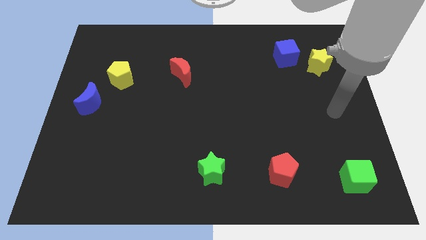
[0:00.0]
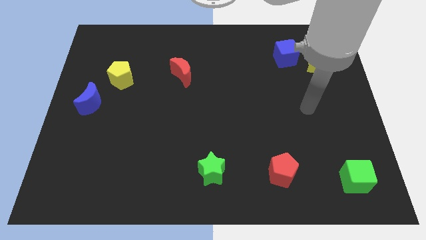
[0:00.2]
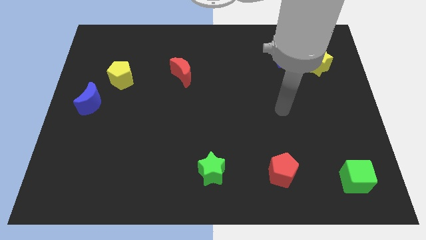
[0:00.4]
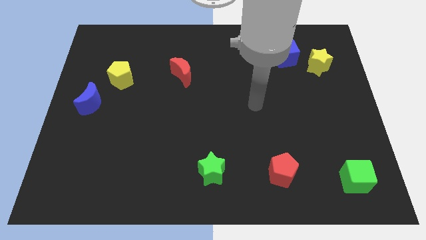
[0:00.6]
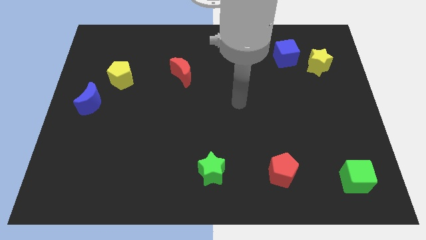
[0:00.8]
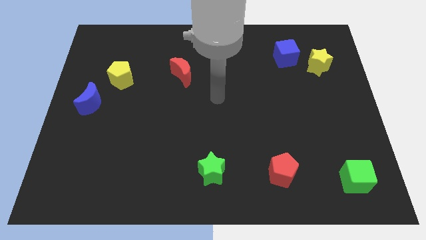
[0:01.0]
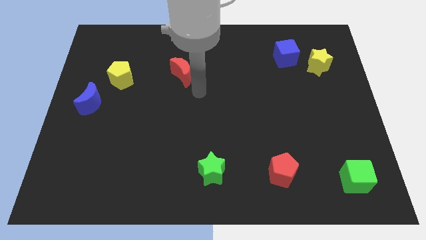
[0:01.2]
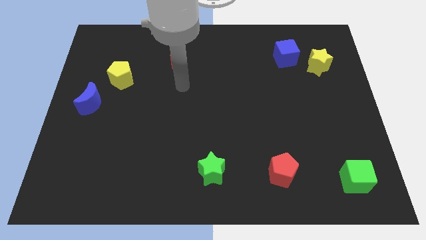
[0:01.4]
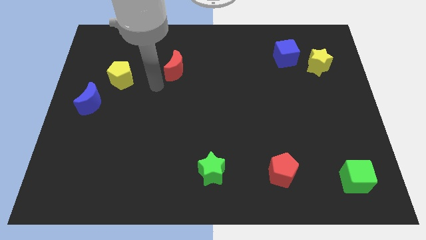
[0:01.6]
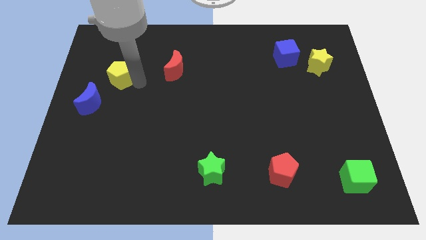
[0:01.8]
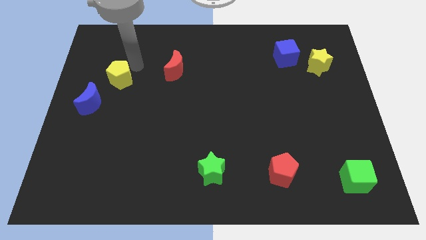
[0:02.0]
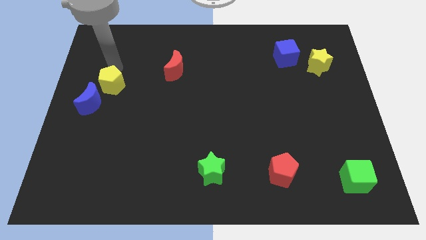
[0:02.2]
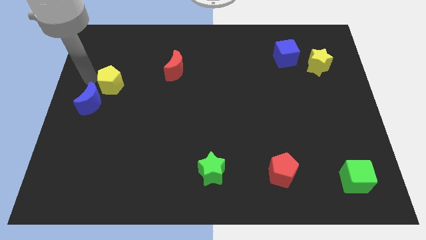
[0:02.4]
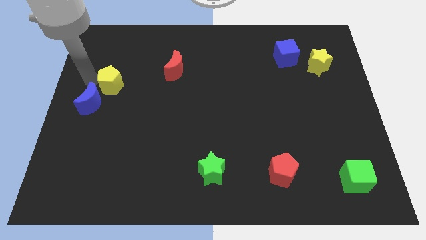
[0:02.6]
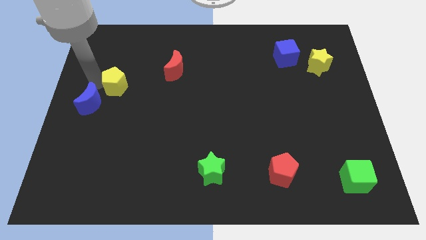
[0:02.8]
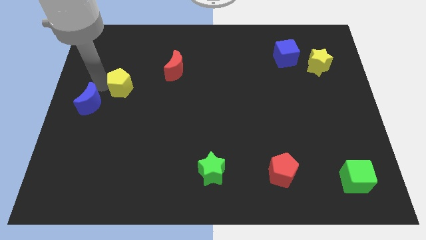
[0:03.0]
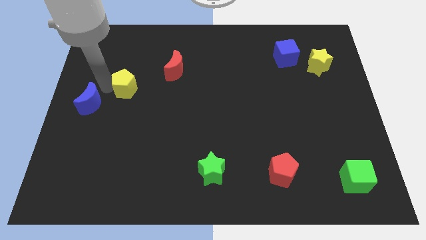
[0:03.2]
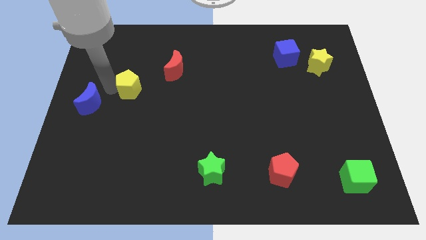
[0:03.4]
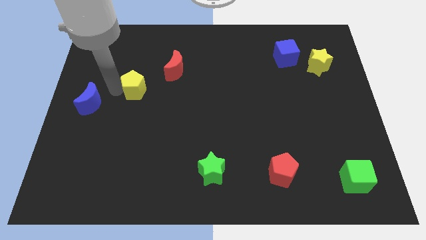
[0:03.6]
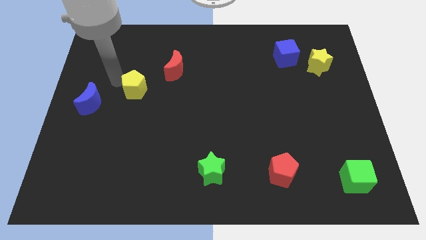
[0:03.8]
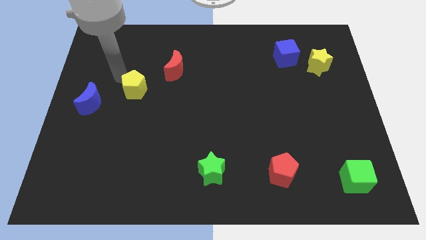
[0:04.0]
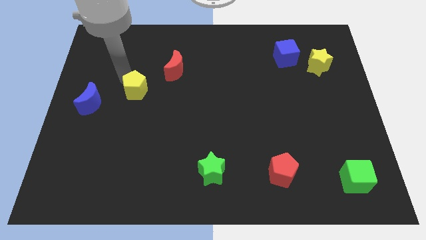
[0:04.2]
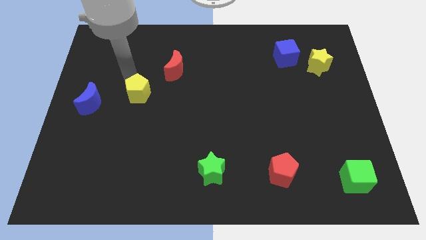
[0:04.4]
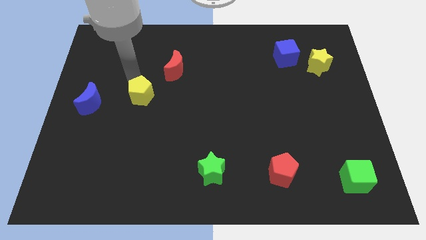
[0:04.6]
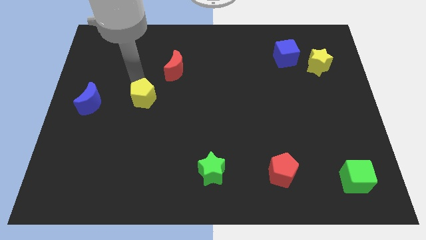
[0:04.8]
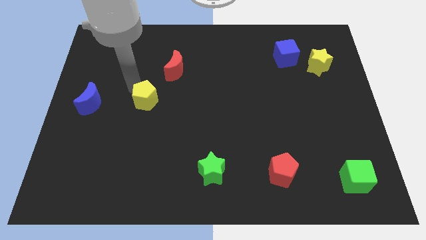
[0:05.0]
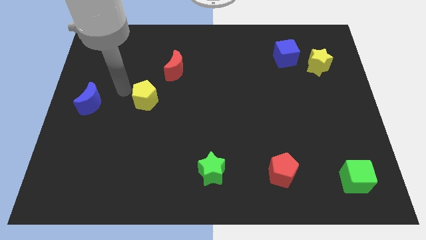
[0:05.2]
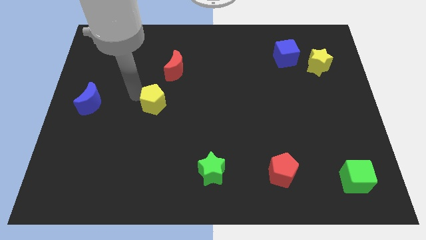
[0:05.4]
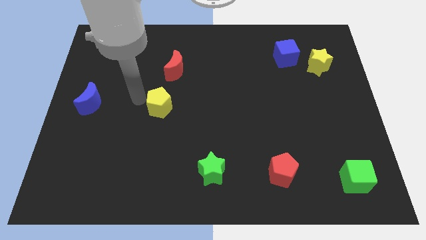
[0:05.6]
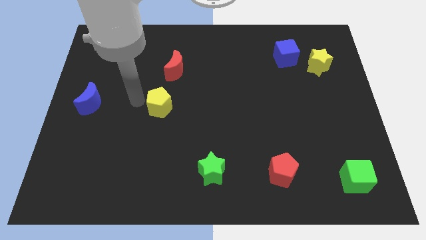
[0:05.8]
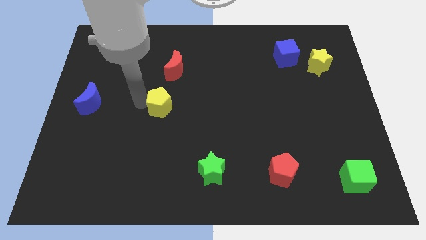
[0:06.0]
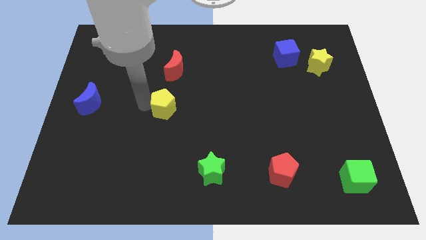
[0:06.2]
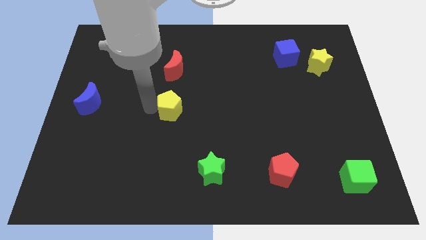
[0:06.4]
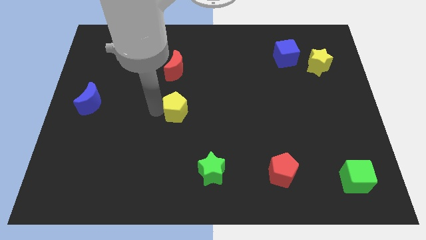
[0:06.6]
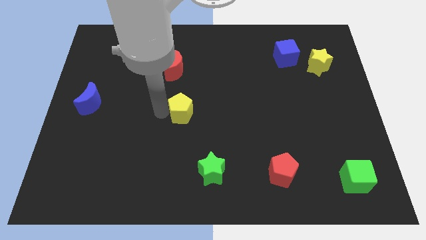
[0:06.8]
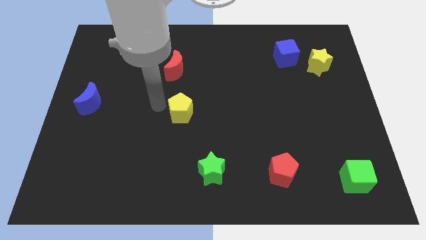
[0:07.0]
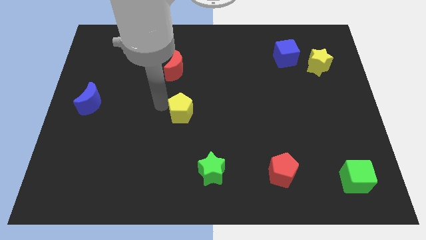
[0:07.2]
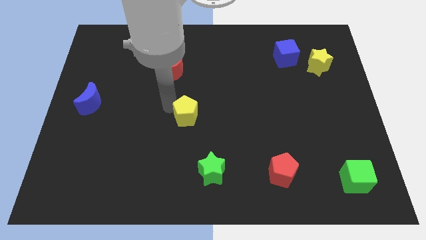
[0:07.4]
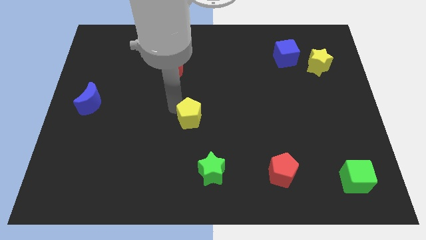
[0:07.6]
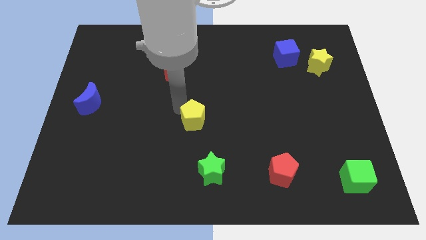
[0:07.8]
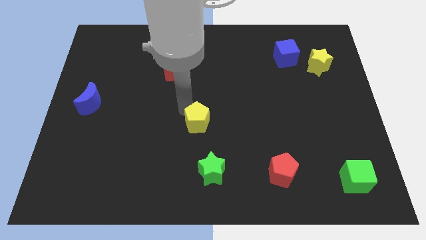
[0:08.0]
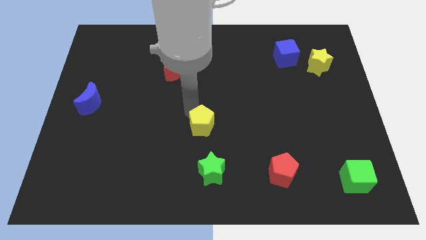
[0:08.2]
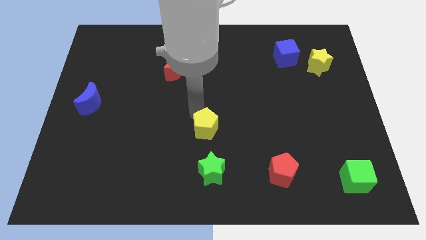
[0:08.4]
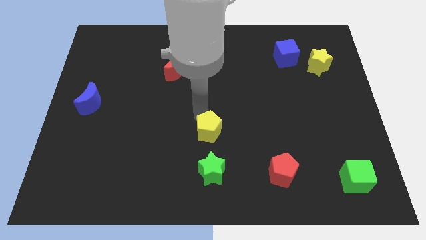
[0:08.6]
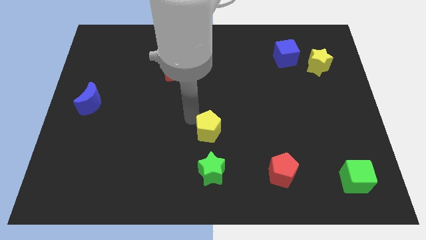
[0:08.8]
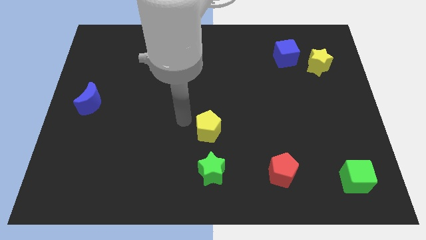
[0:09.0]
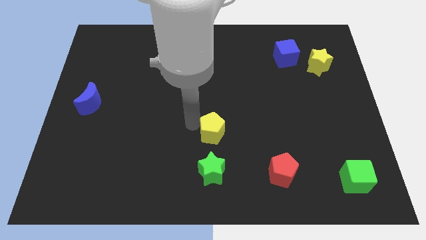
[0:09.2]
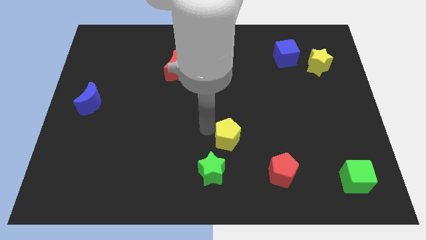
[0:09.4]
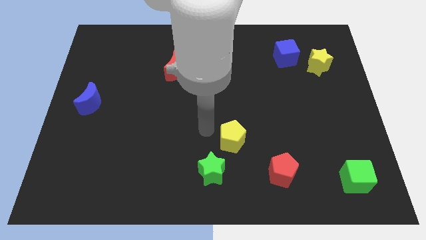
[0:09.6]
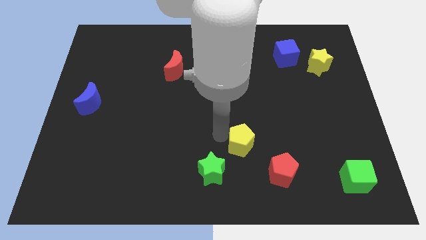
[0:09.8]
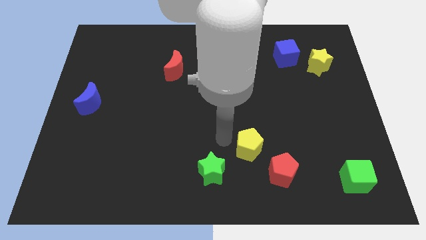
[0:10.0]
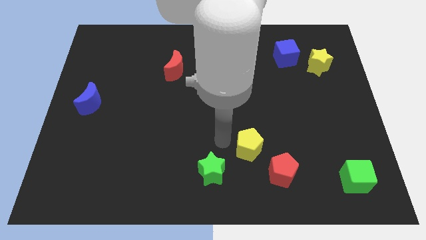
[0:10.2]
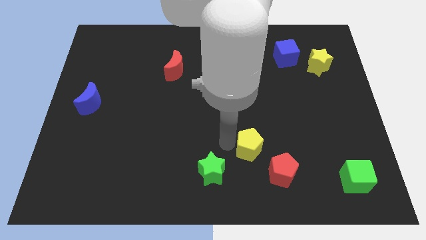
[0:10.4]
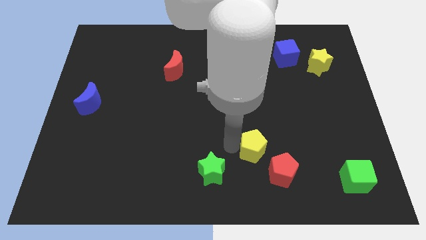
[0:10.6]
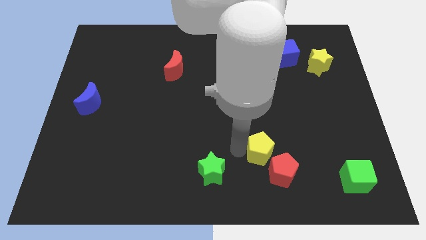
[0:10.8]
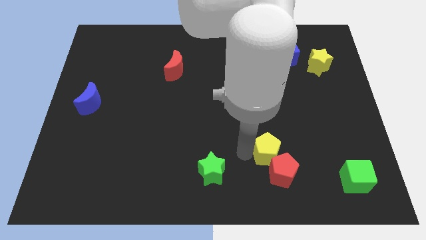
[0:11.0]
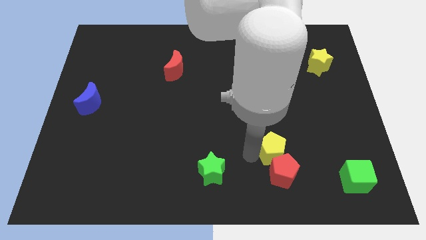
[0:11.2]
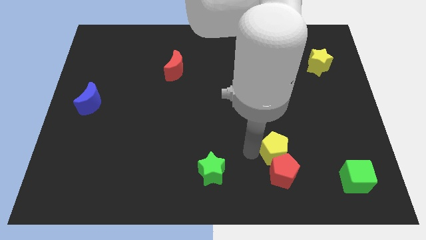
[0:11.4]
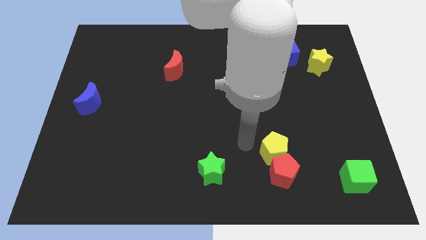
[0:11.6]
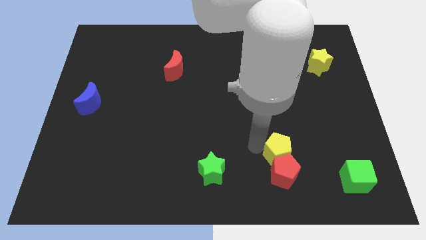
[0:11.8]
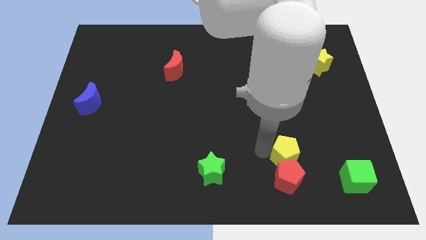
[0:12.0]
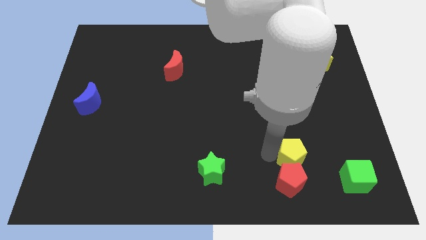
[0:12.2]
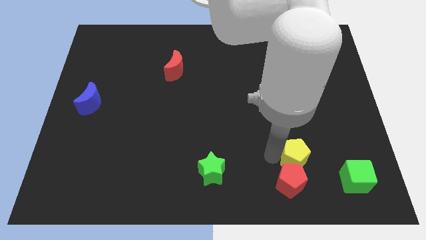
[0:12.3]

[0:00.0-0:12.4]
push the yellow pentagon to the left side of the green cube
